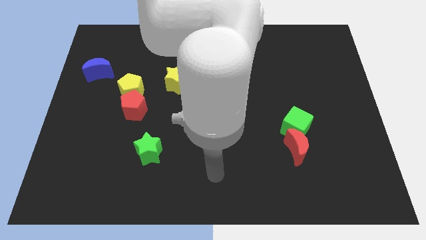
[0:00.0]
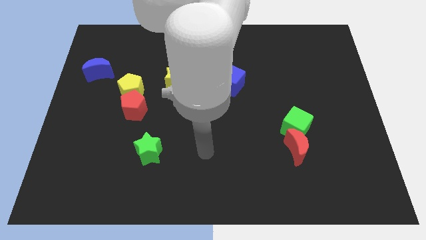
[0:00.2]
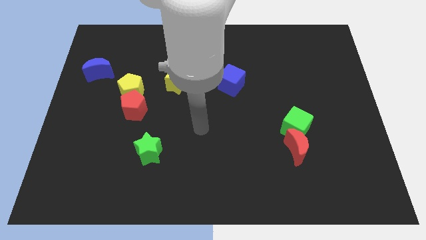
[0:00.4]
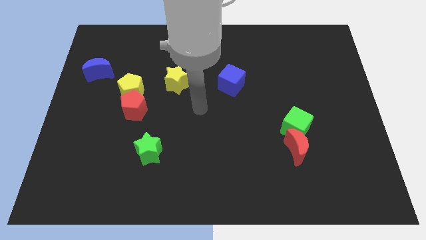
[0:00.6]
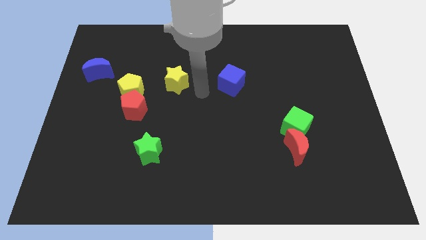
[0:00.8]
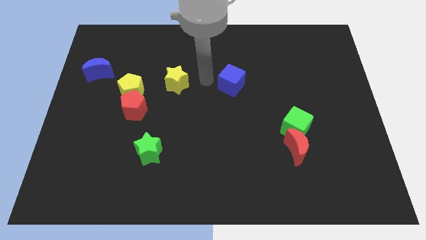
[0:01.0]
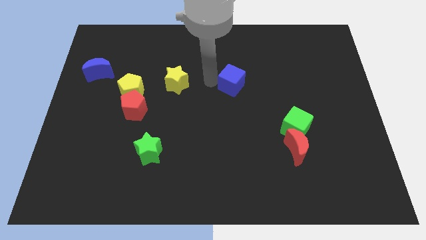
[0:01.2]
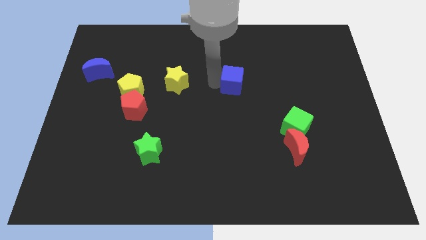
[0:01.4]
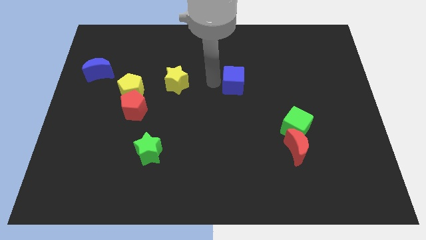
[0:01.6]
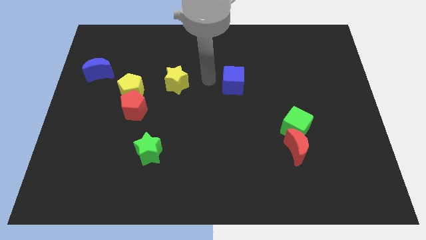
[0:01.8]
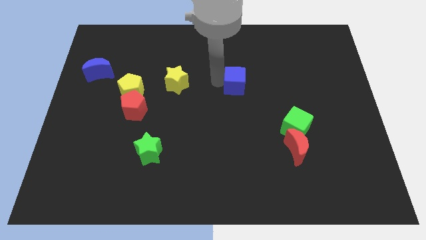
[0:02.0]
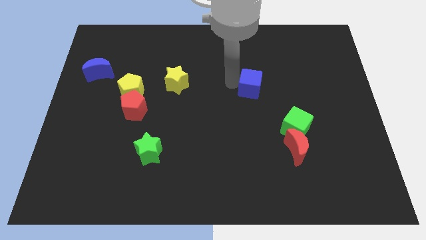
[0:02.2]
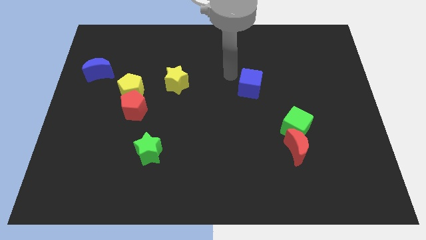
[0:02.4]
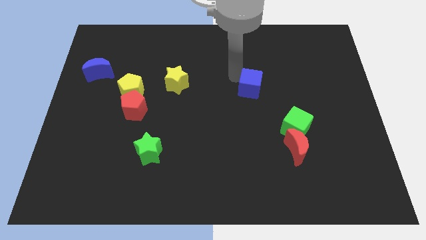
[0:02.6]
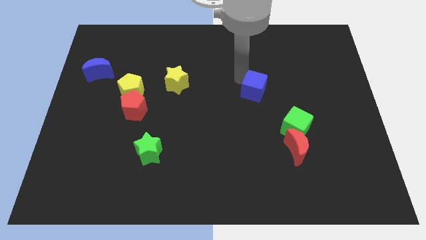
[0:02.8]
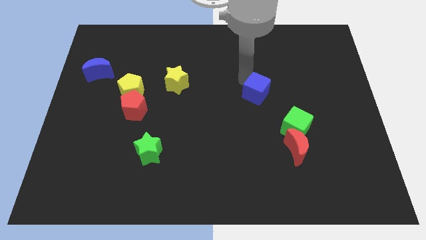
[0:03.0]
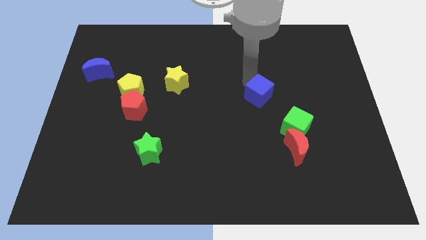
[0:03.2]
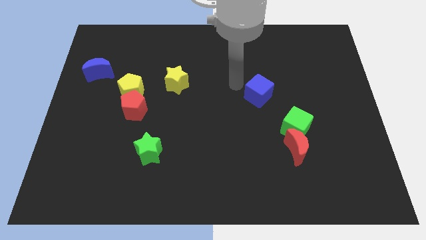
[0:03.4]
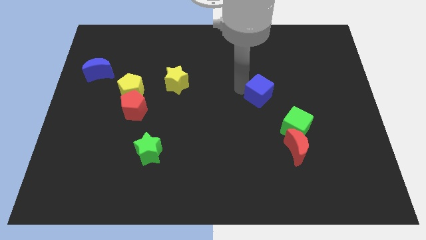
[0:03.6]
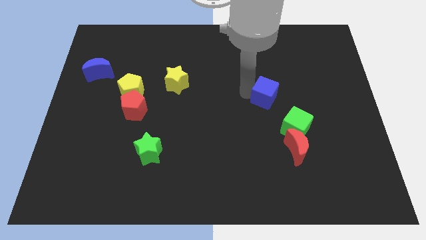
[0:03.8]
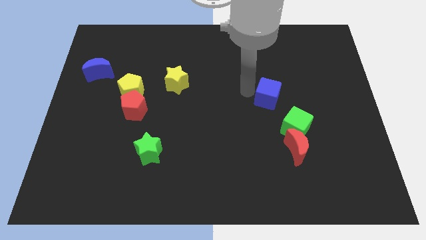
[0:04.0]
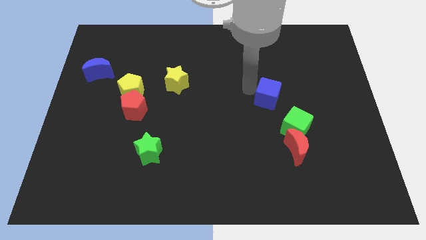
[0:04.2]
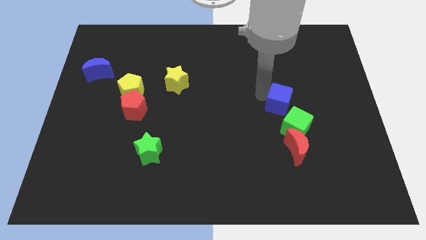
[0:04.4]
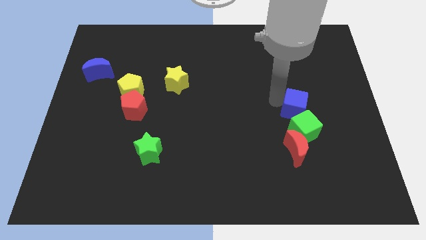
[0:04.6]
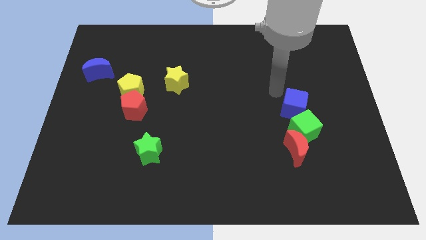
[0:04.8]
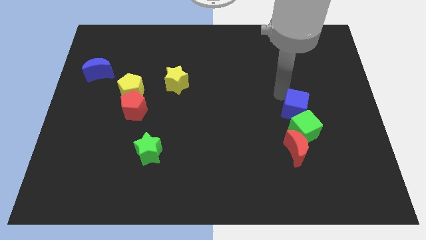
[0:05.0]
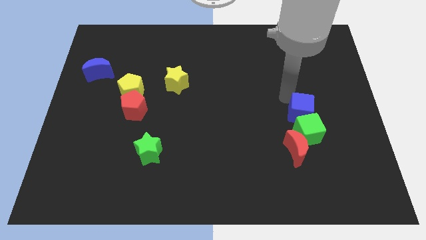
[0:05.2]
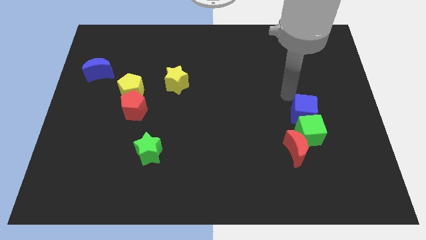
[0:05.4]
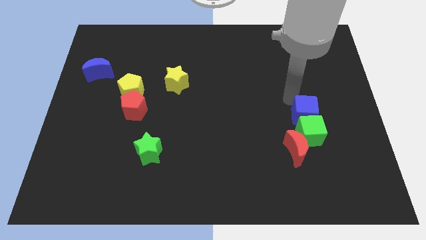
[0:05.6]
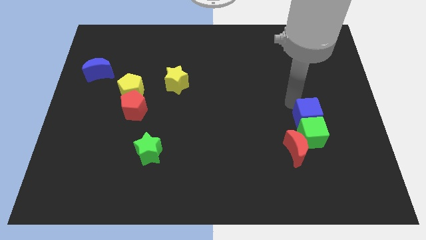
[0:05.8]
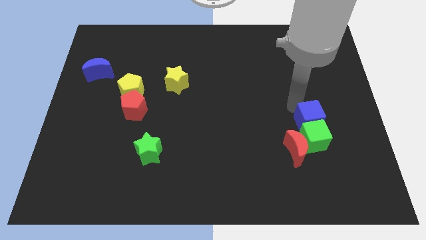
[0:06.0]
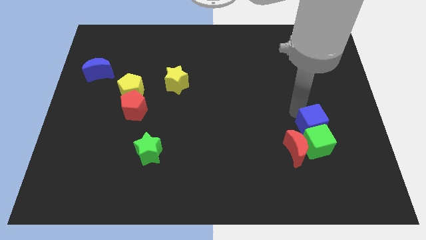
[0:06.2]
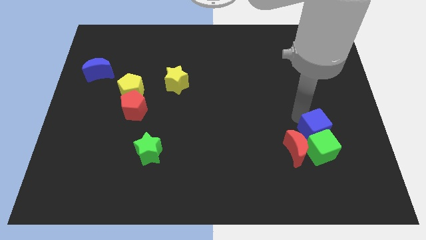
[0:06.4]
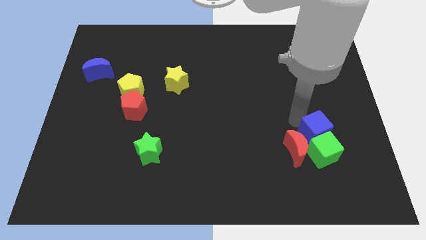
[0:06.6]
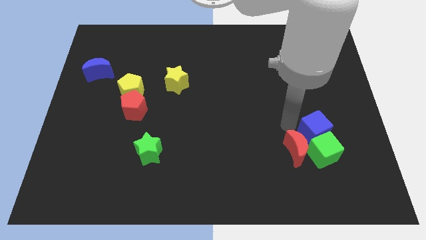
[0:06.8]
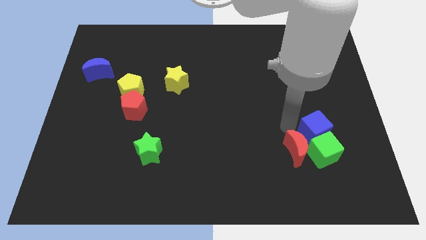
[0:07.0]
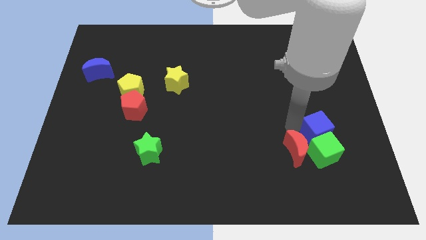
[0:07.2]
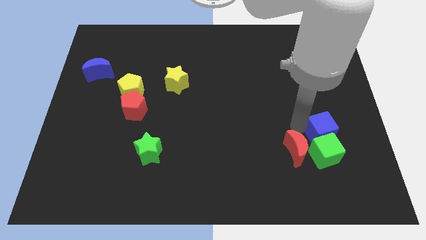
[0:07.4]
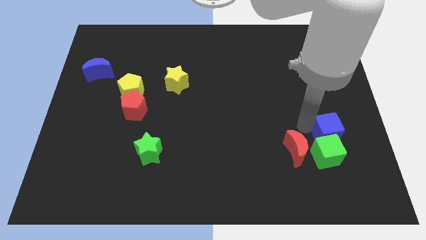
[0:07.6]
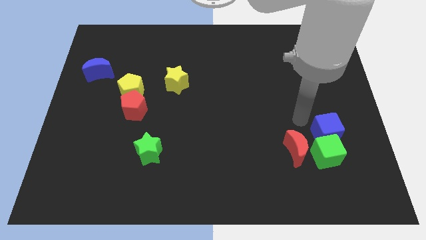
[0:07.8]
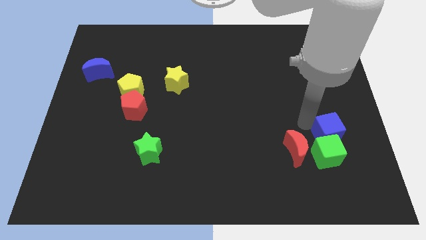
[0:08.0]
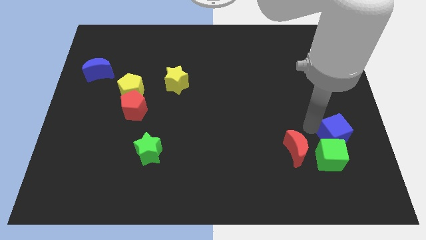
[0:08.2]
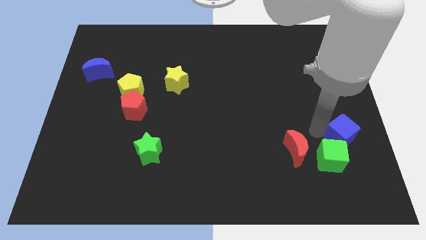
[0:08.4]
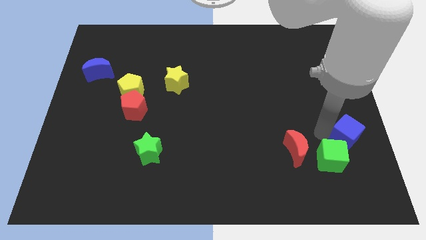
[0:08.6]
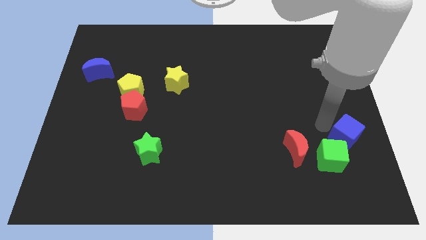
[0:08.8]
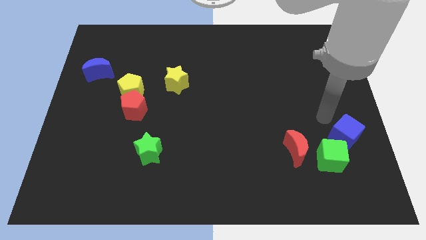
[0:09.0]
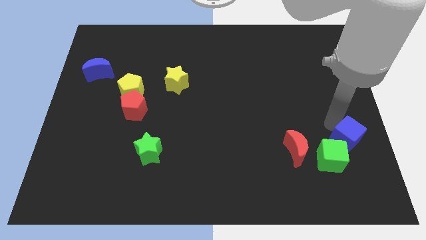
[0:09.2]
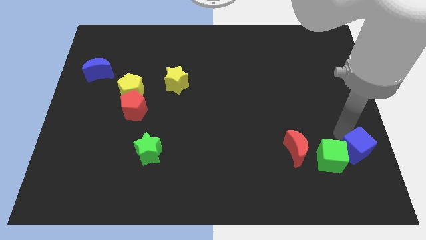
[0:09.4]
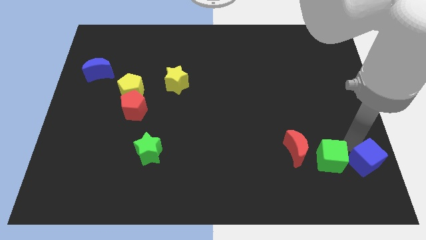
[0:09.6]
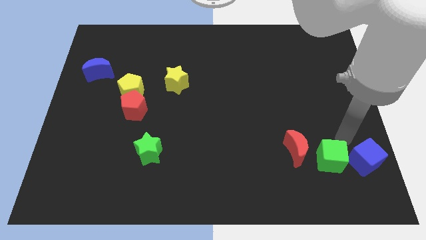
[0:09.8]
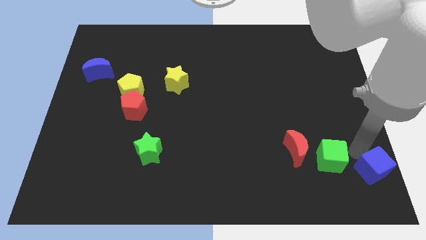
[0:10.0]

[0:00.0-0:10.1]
push the blue cube to the bottom right
